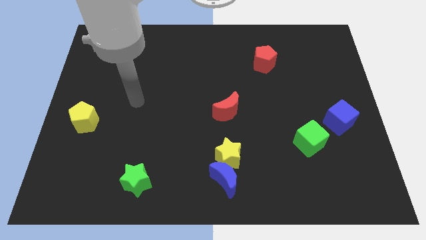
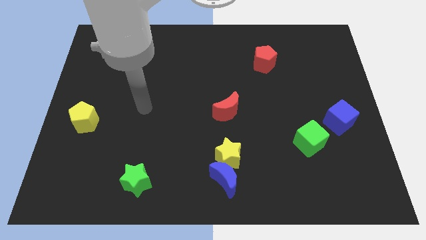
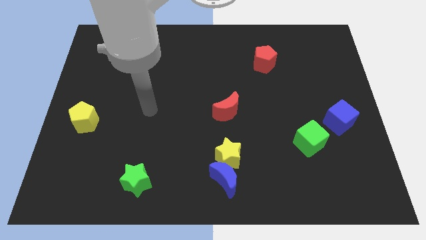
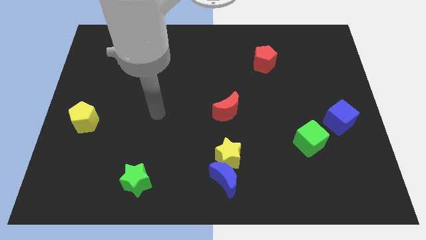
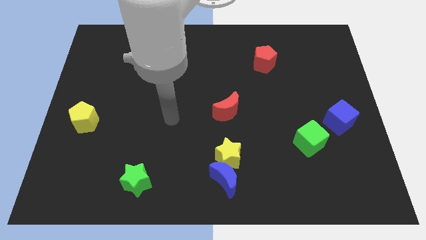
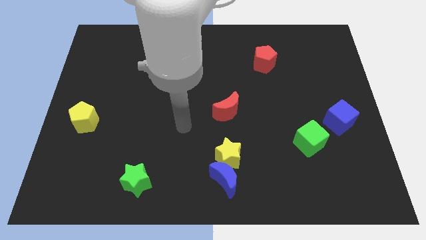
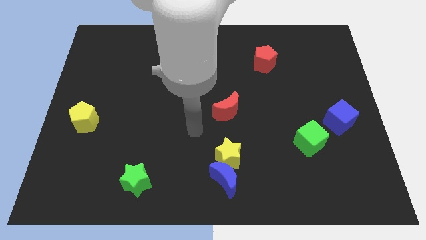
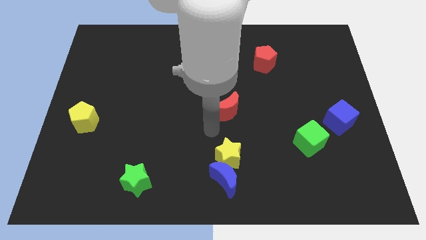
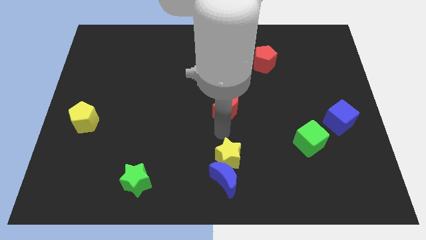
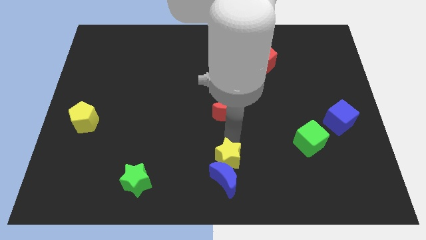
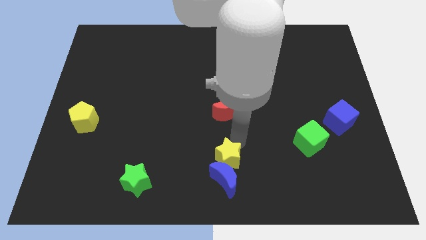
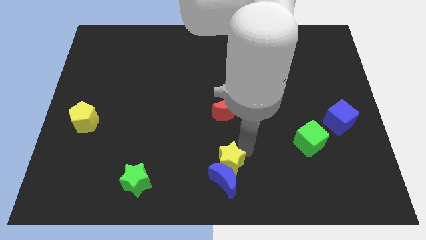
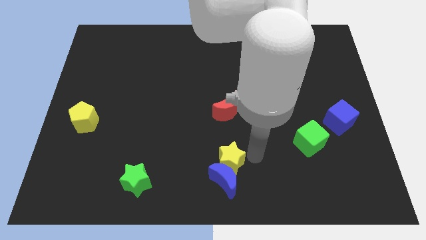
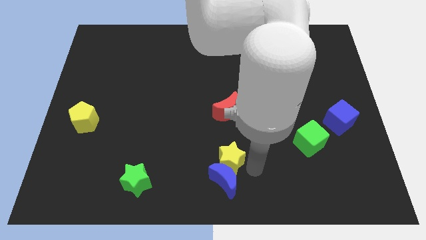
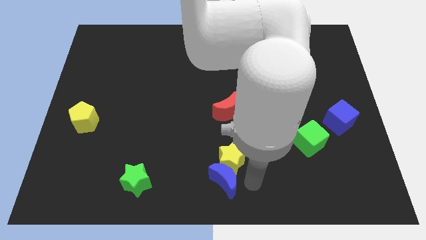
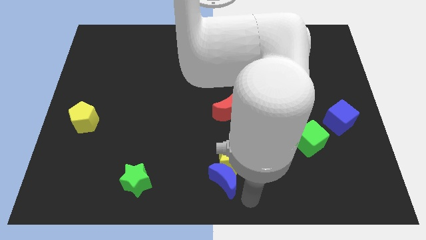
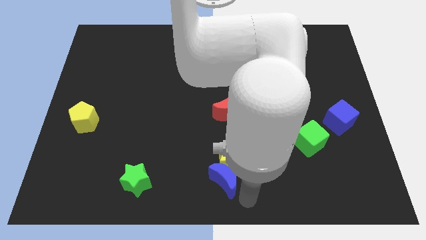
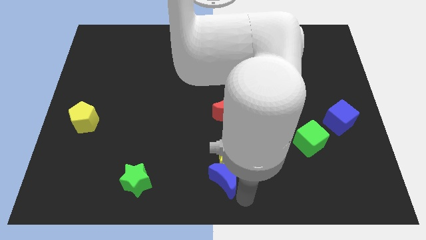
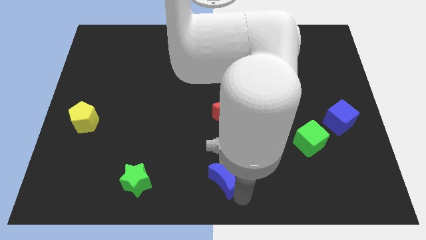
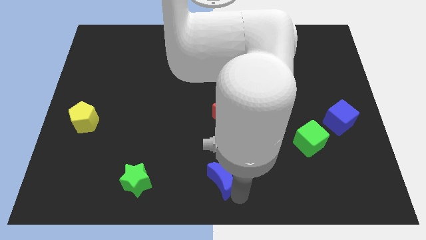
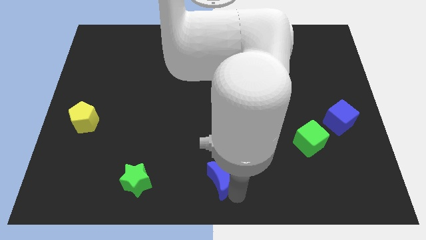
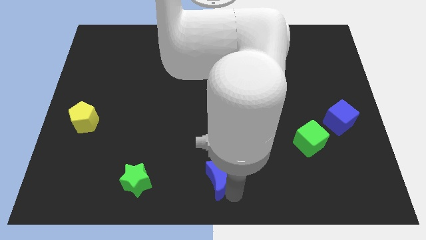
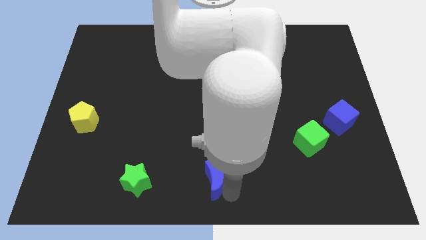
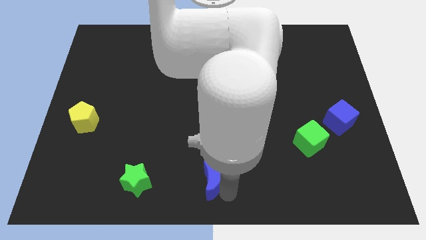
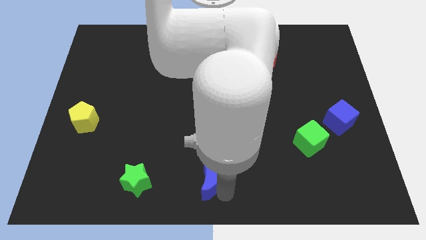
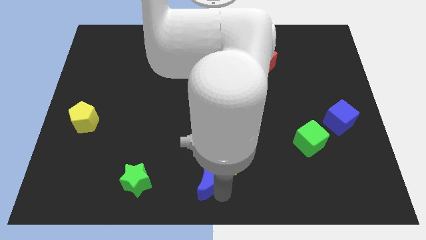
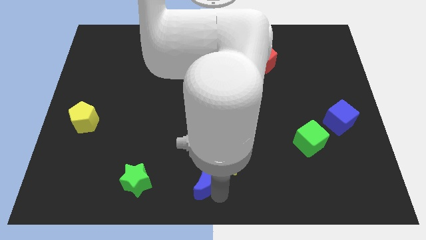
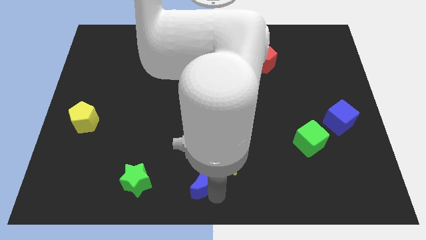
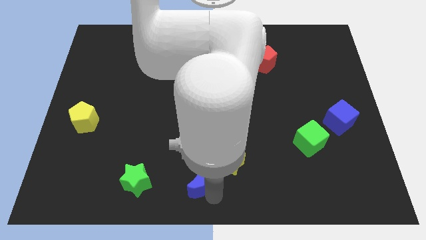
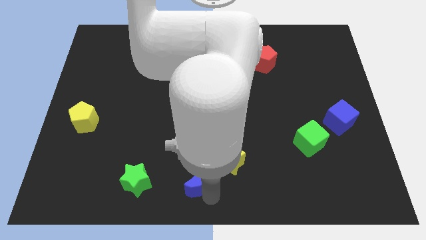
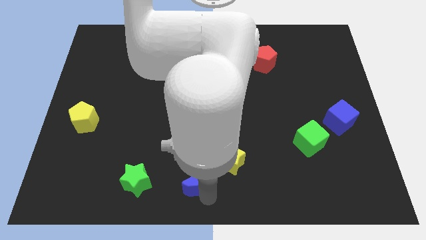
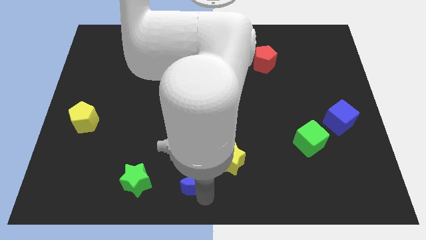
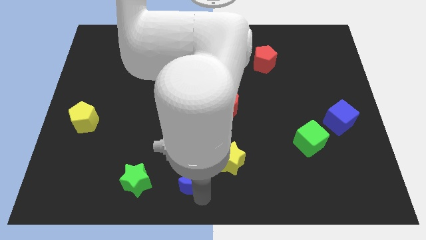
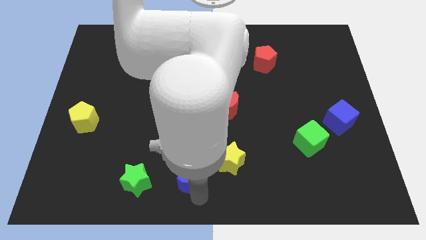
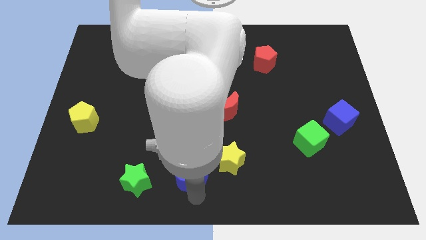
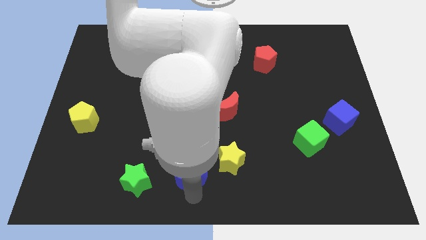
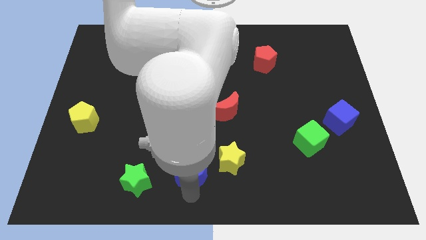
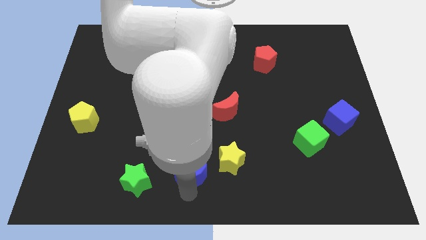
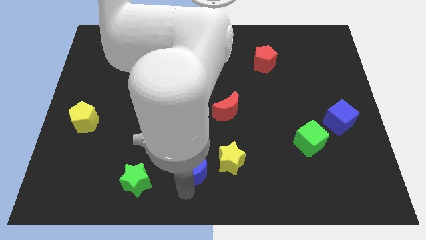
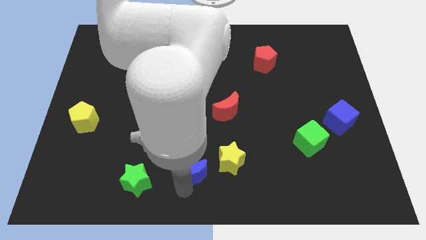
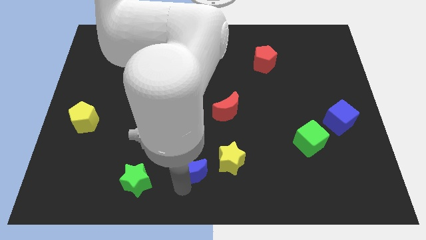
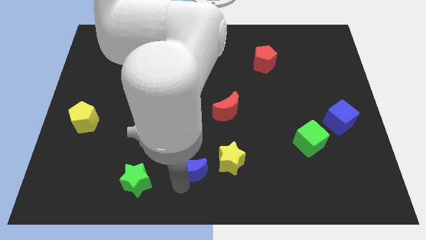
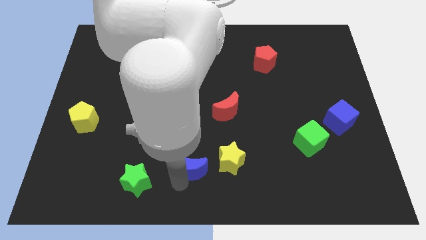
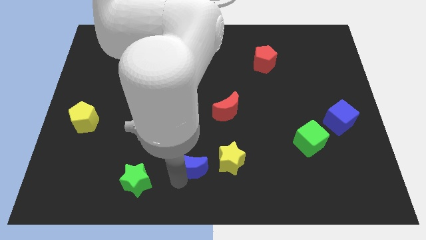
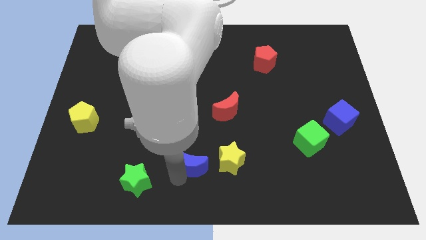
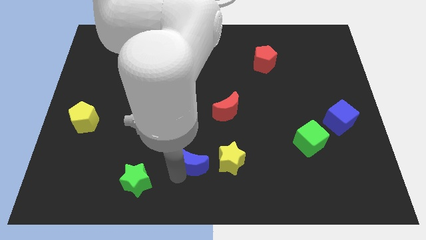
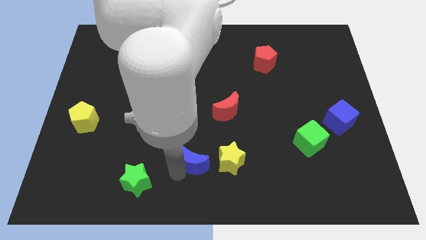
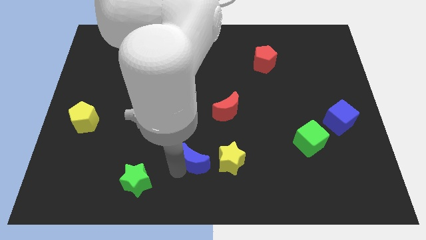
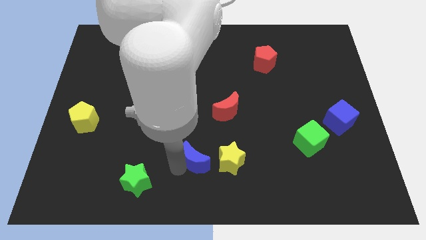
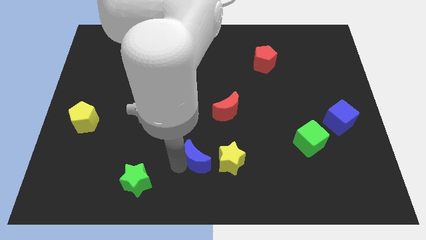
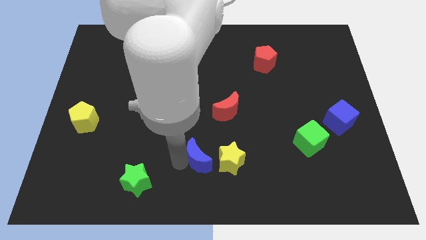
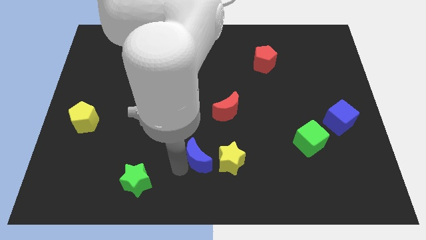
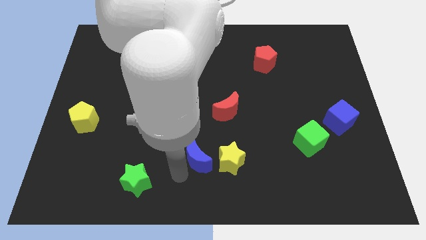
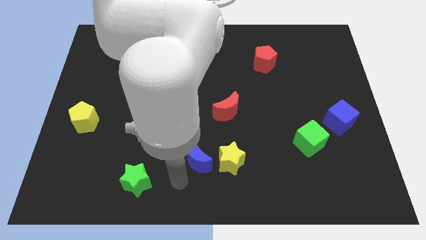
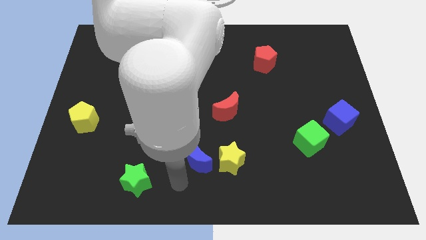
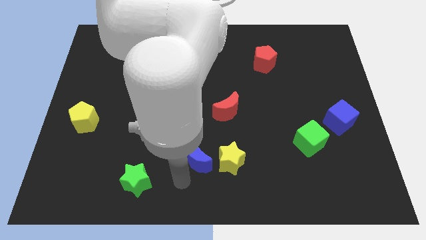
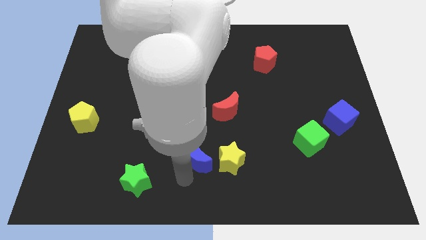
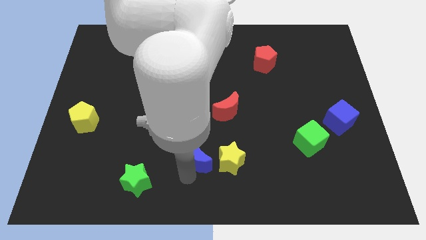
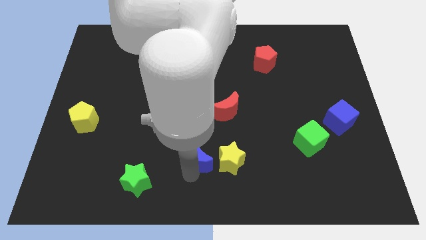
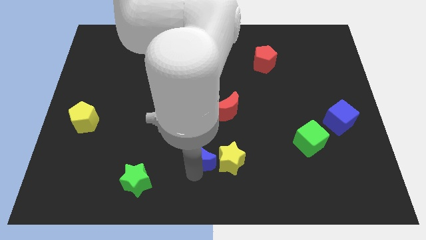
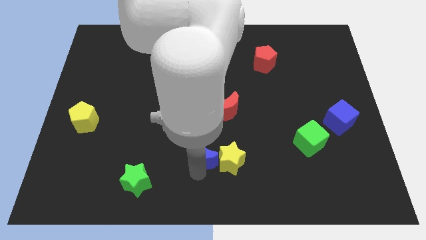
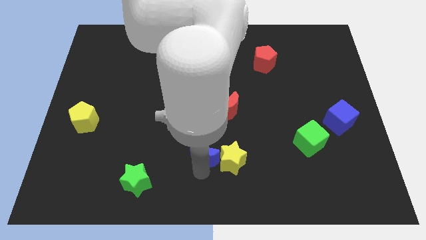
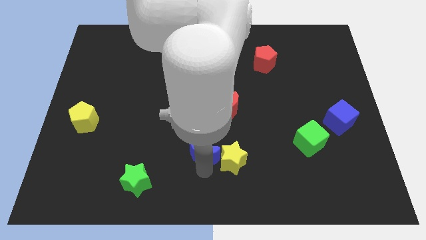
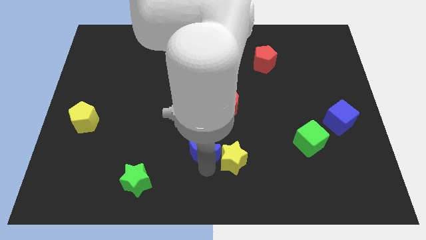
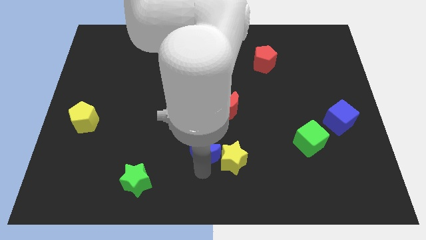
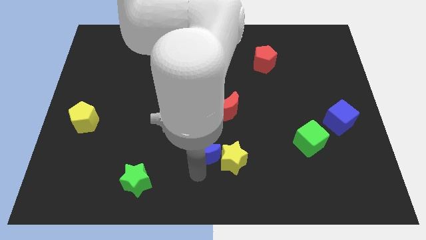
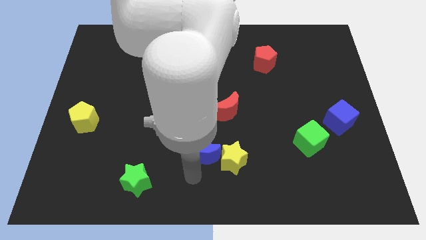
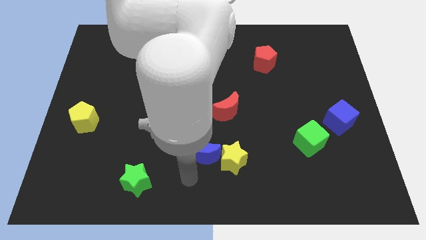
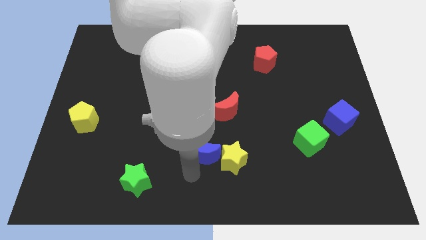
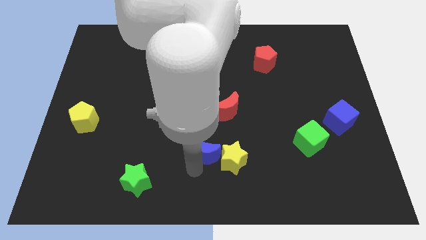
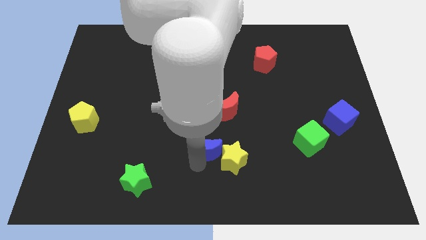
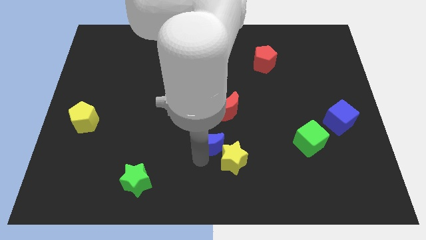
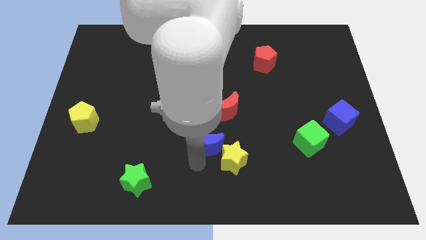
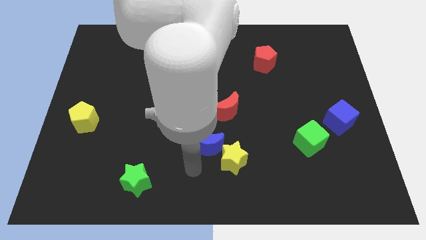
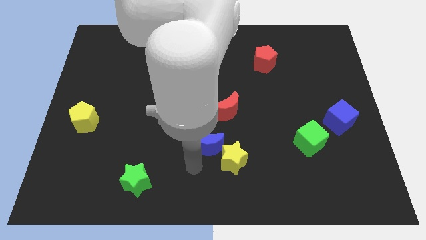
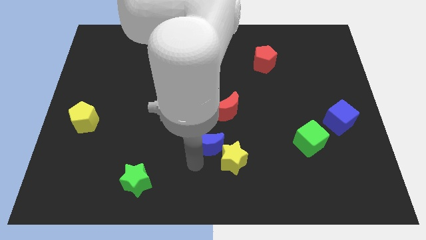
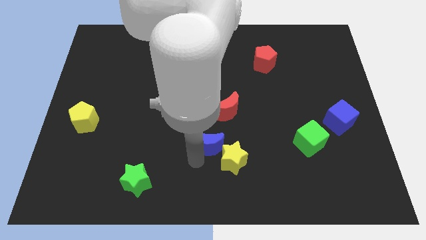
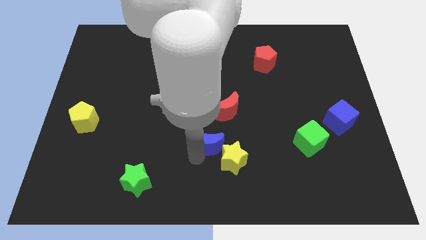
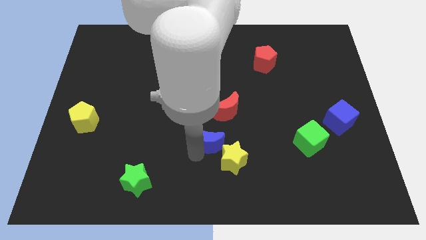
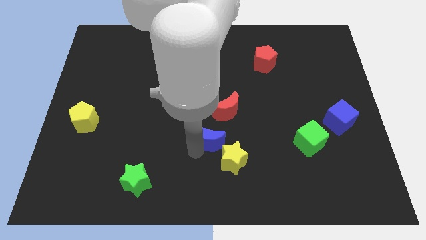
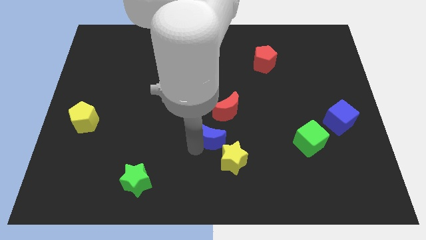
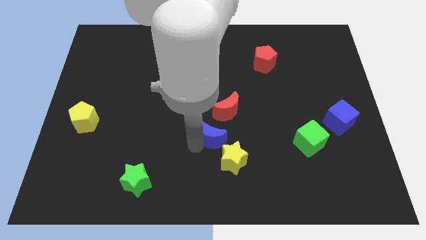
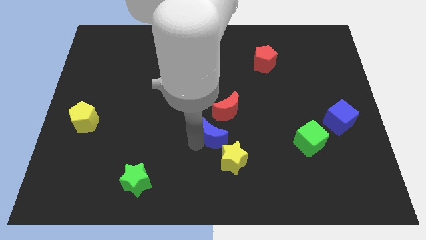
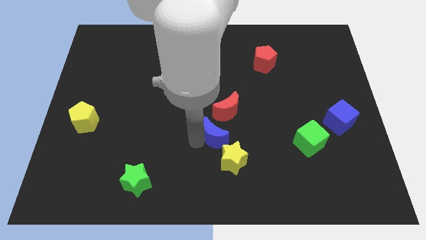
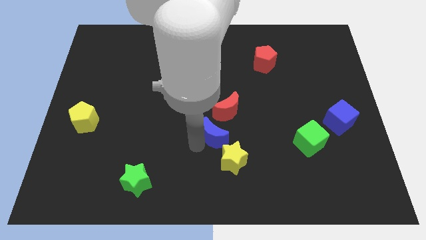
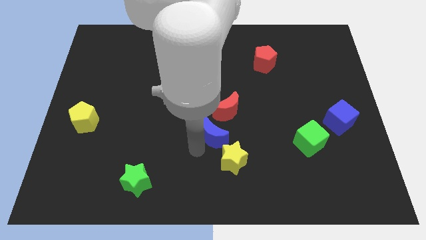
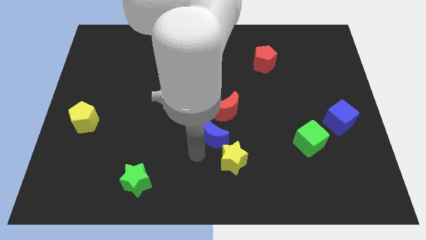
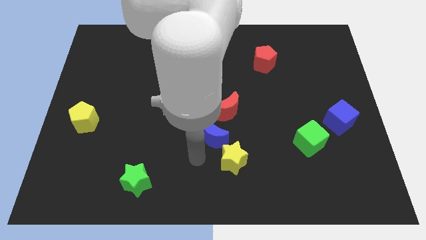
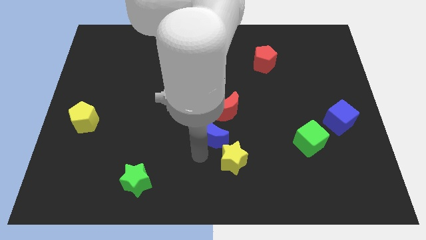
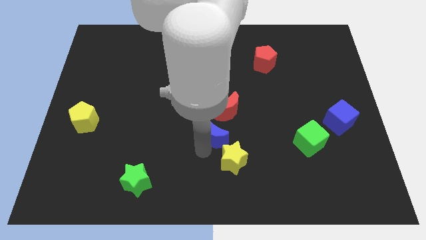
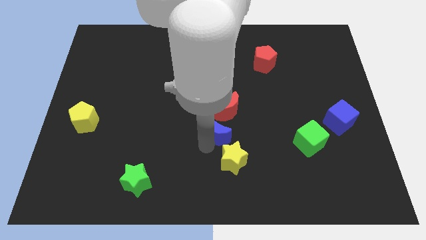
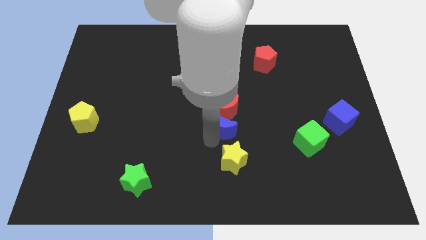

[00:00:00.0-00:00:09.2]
push the blue moon to the red moon
